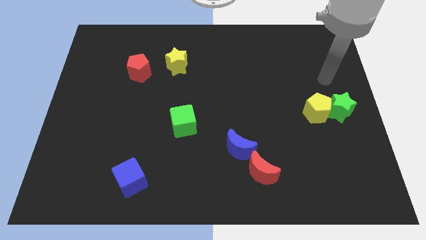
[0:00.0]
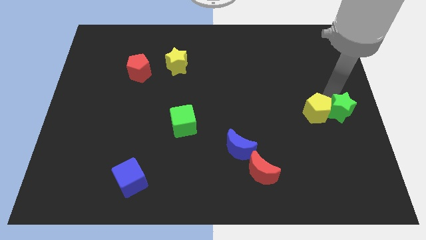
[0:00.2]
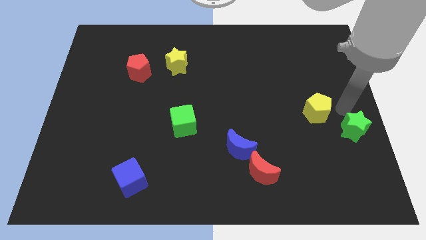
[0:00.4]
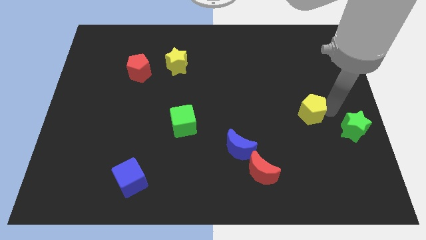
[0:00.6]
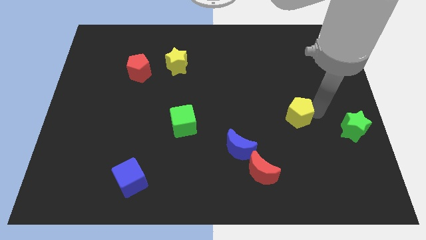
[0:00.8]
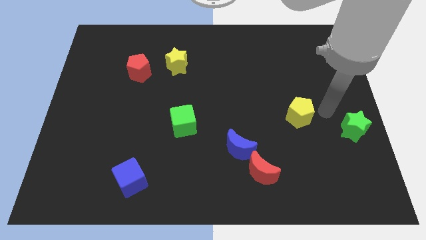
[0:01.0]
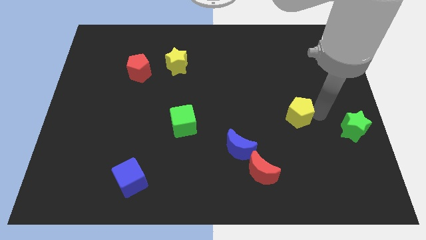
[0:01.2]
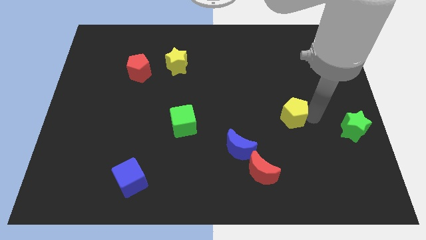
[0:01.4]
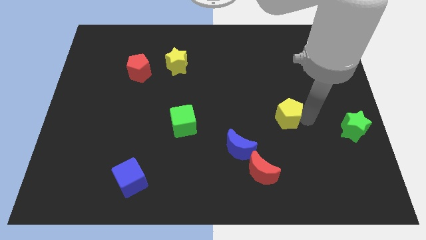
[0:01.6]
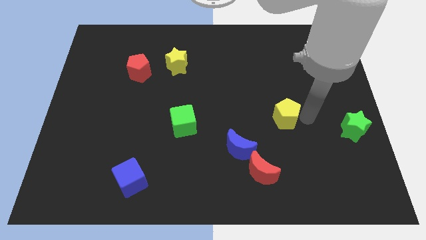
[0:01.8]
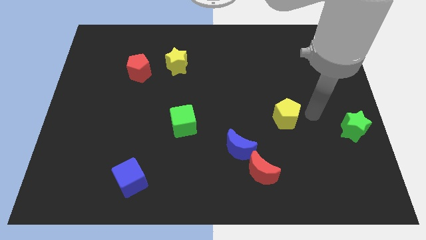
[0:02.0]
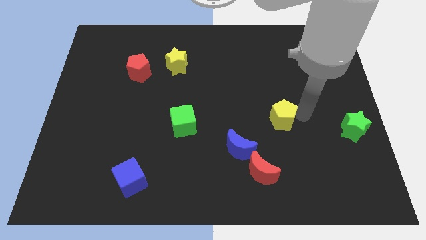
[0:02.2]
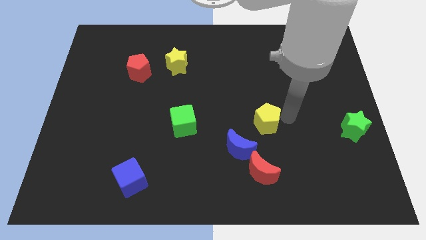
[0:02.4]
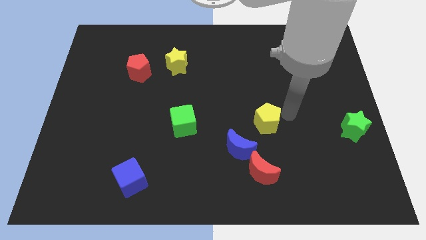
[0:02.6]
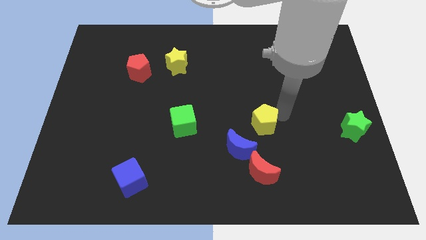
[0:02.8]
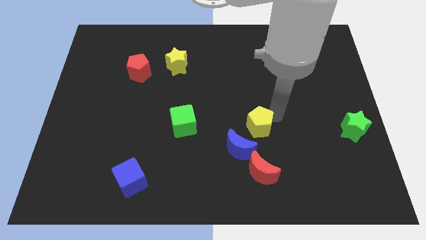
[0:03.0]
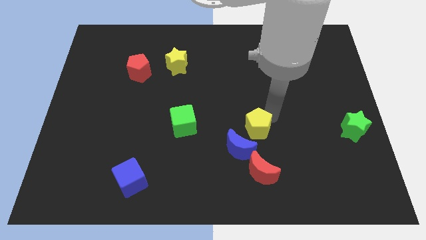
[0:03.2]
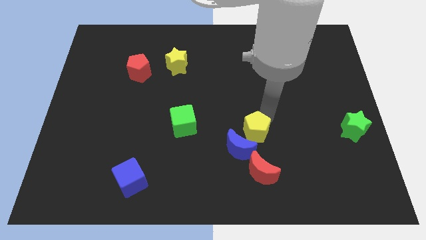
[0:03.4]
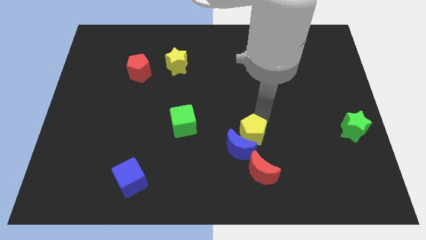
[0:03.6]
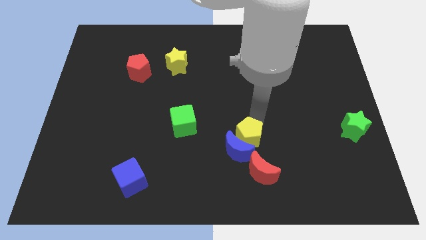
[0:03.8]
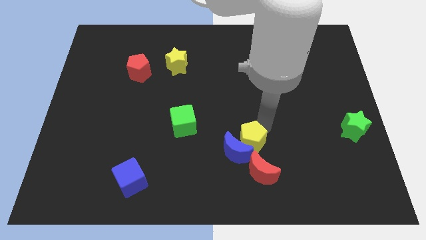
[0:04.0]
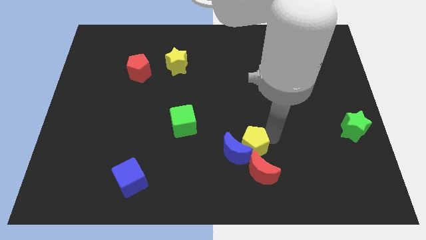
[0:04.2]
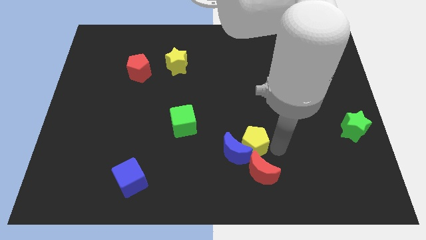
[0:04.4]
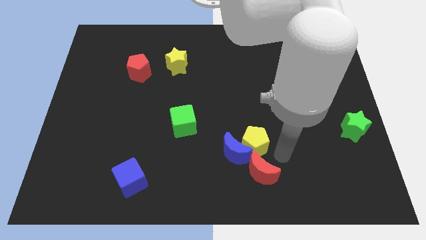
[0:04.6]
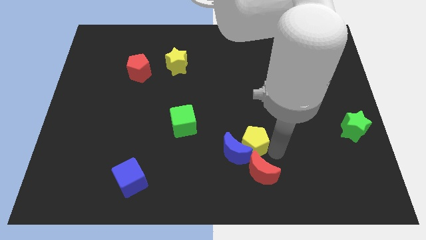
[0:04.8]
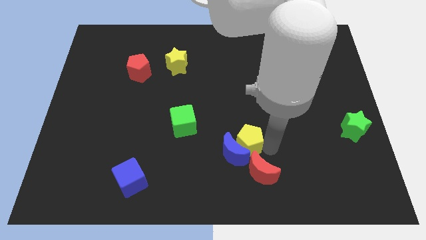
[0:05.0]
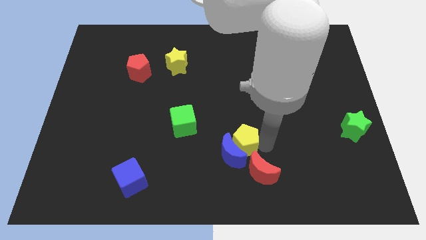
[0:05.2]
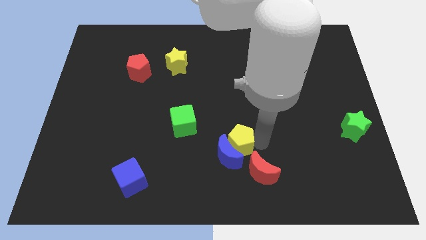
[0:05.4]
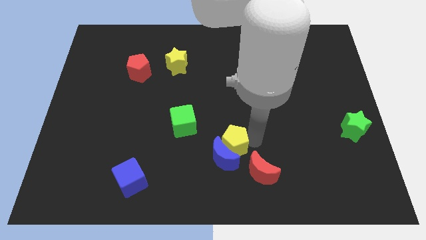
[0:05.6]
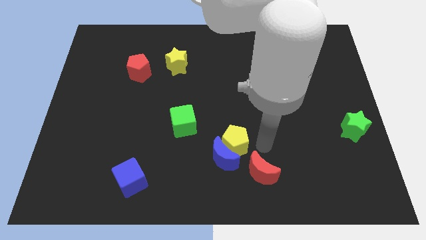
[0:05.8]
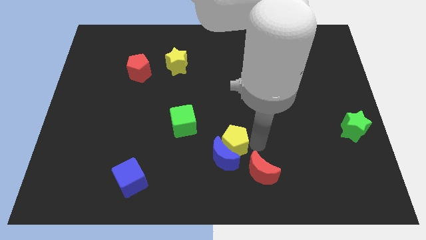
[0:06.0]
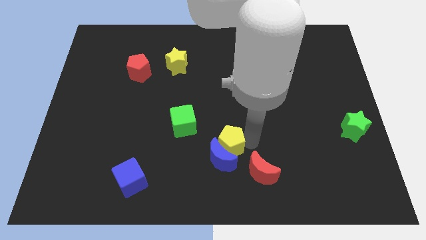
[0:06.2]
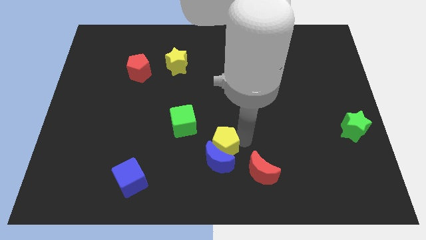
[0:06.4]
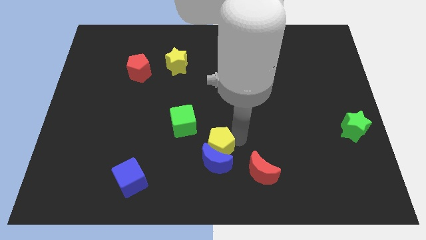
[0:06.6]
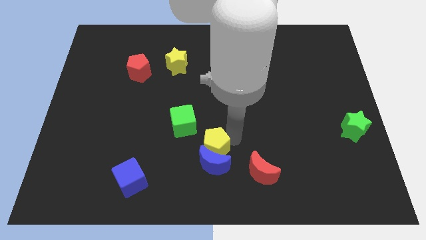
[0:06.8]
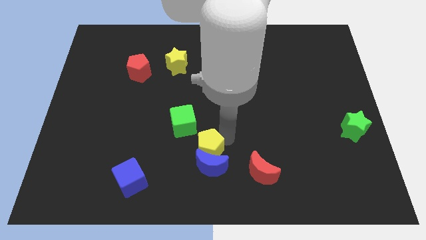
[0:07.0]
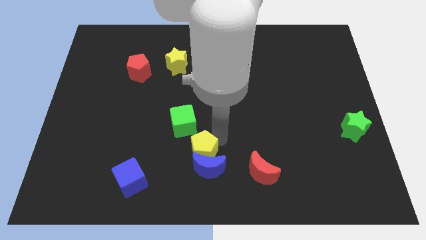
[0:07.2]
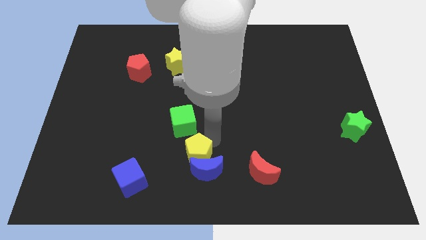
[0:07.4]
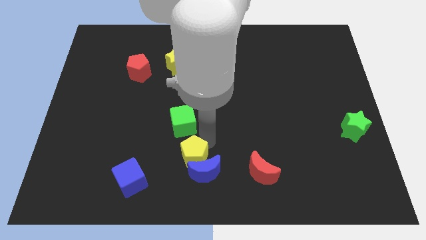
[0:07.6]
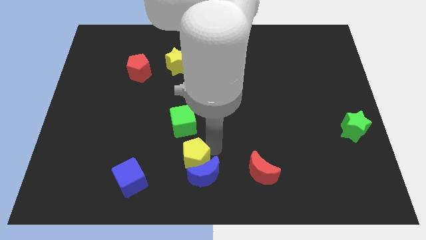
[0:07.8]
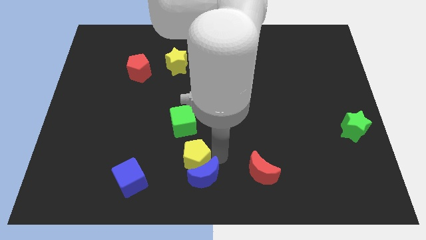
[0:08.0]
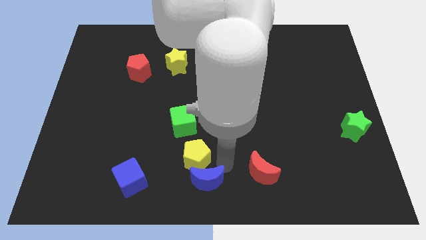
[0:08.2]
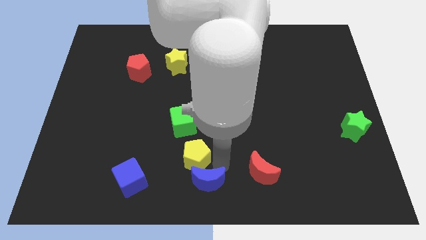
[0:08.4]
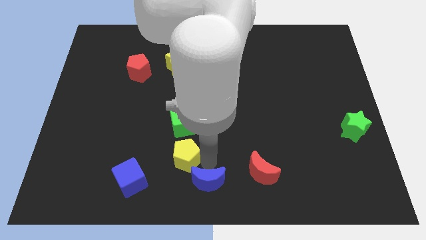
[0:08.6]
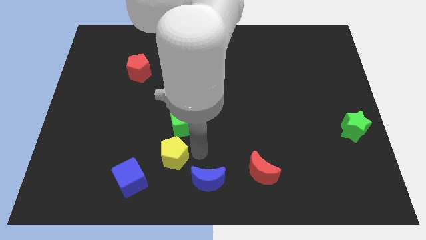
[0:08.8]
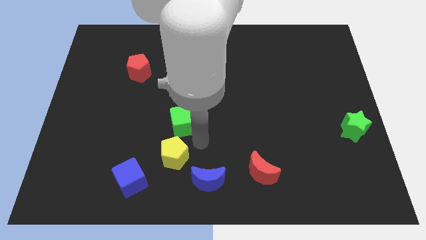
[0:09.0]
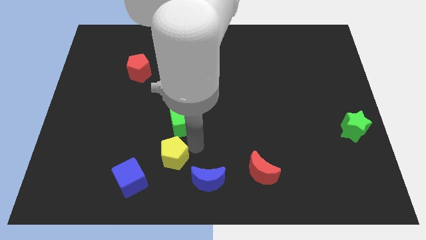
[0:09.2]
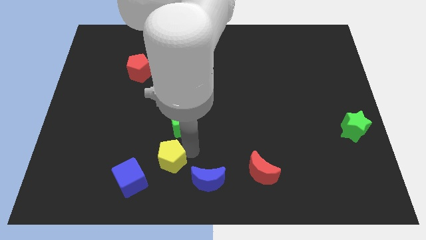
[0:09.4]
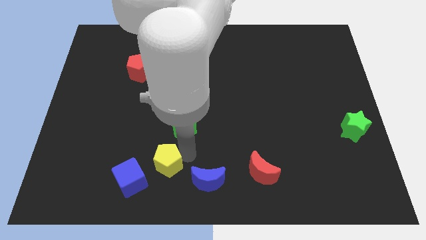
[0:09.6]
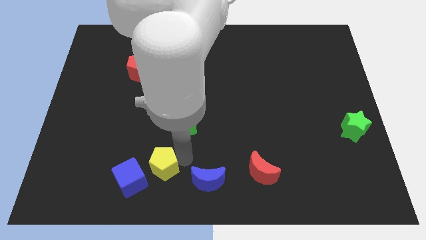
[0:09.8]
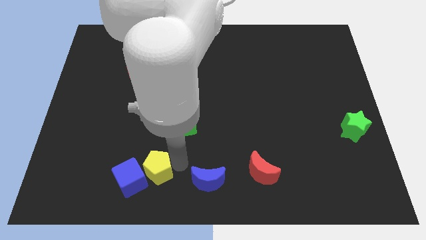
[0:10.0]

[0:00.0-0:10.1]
push the yellow pentagon towards the blue cube

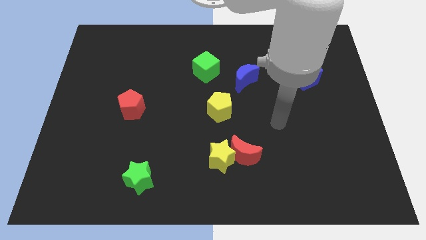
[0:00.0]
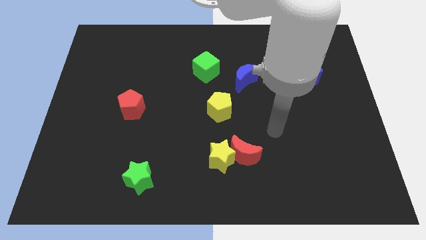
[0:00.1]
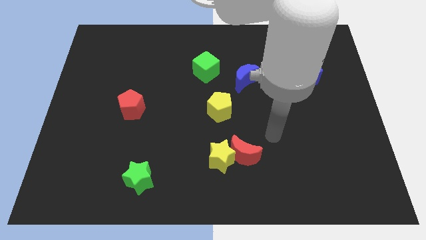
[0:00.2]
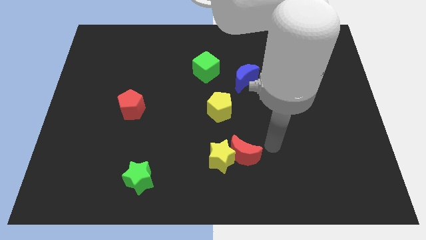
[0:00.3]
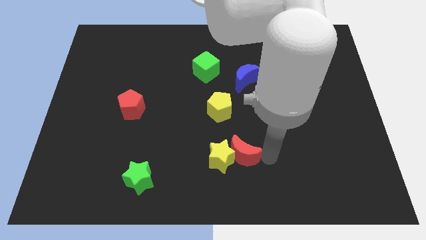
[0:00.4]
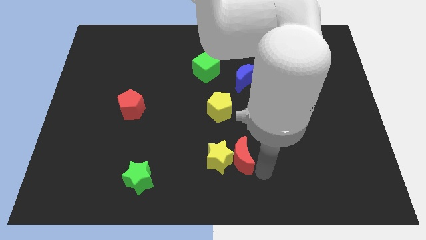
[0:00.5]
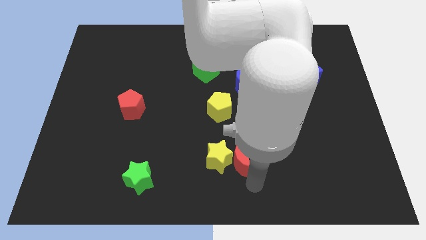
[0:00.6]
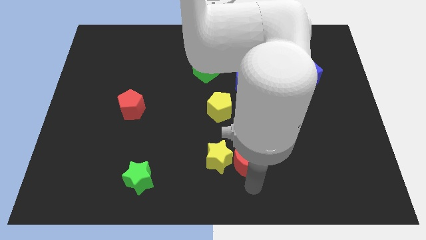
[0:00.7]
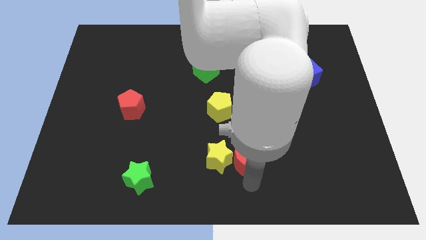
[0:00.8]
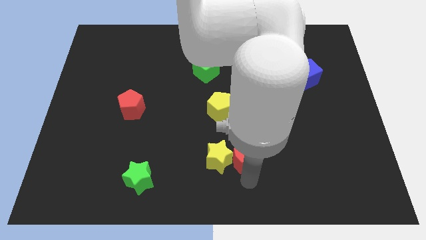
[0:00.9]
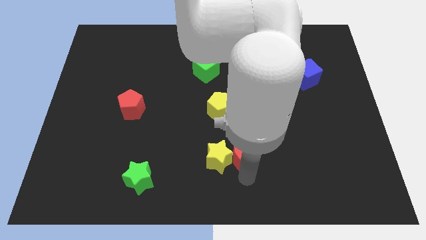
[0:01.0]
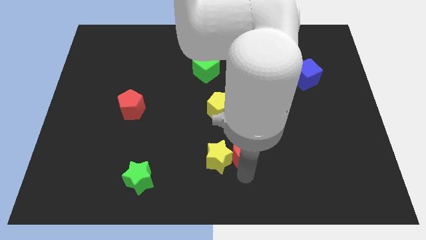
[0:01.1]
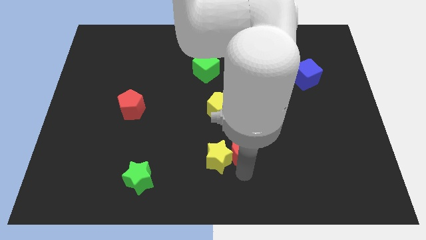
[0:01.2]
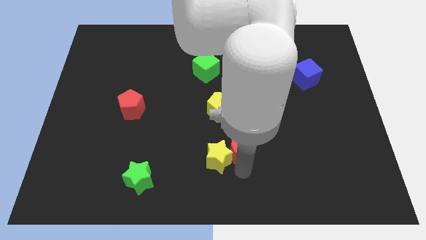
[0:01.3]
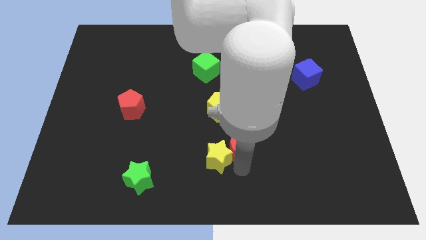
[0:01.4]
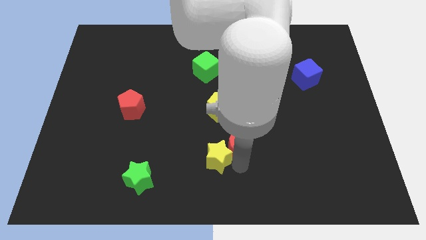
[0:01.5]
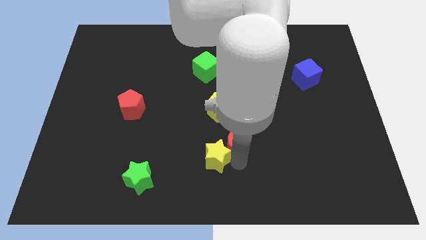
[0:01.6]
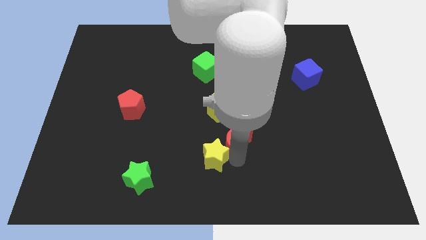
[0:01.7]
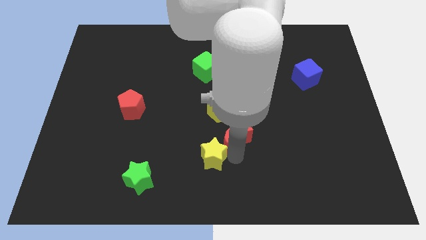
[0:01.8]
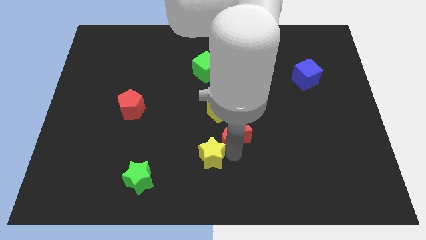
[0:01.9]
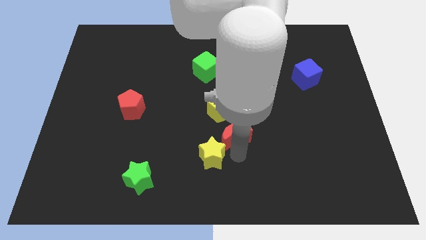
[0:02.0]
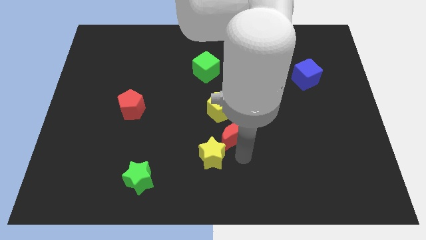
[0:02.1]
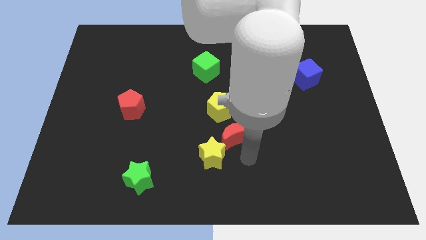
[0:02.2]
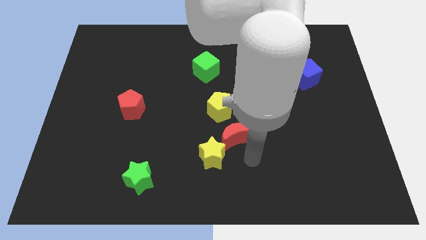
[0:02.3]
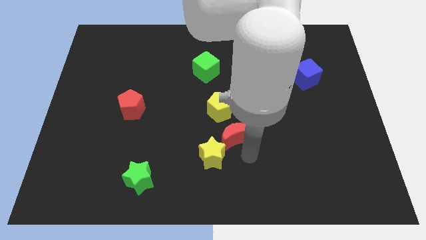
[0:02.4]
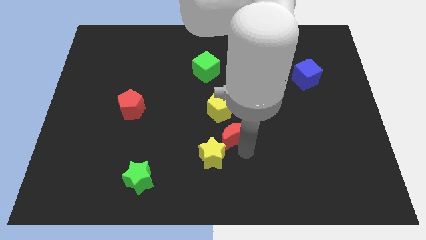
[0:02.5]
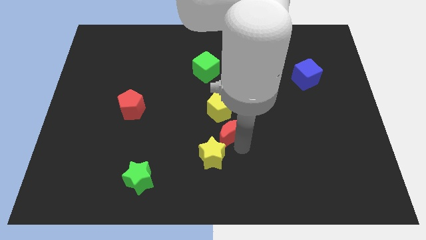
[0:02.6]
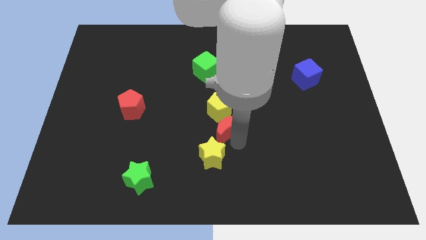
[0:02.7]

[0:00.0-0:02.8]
put the red moon to the yellow pentagon
